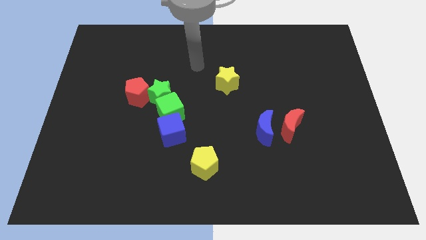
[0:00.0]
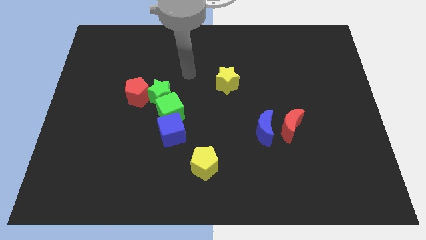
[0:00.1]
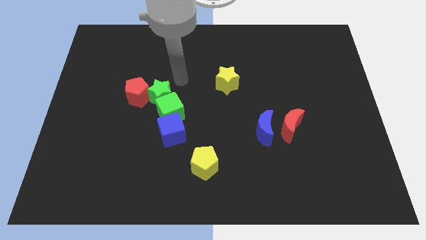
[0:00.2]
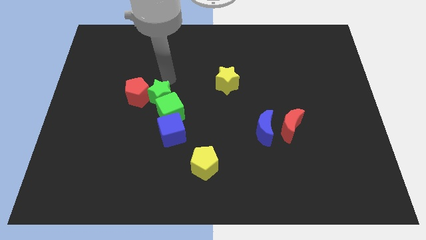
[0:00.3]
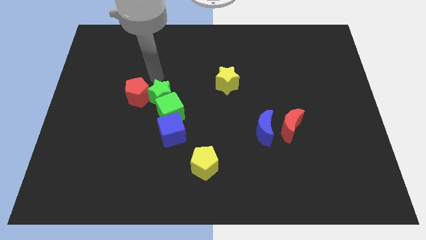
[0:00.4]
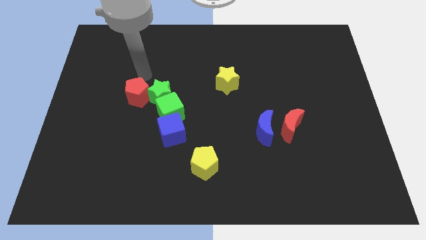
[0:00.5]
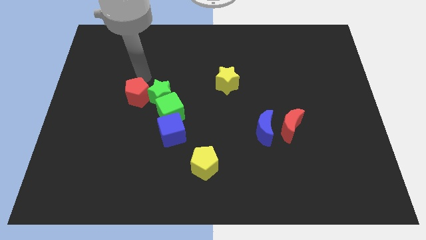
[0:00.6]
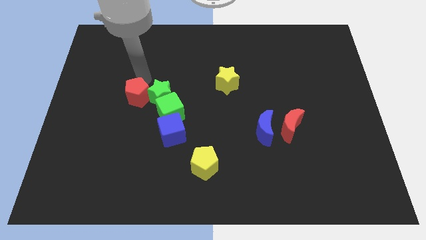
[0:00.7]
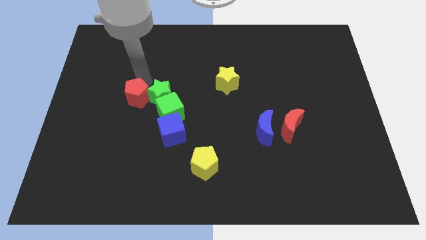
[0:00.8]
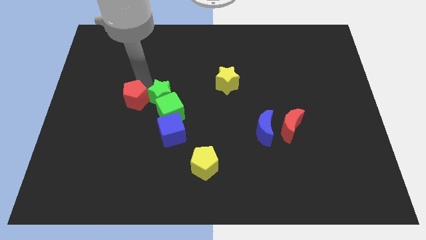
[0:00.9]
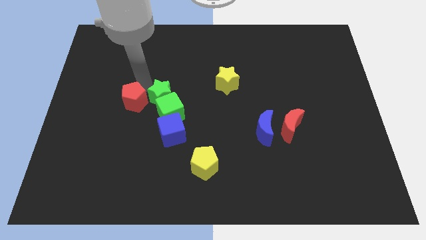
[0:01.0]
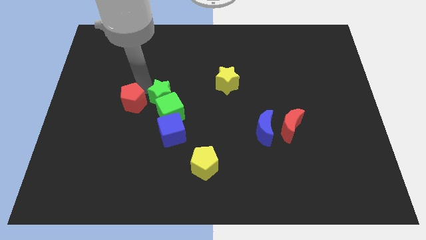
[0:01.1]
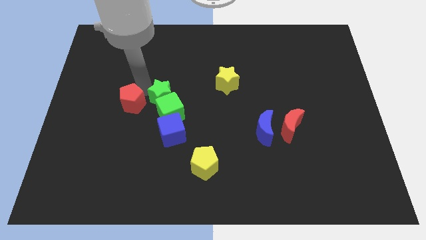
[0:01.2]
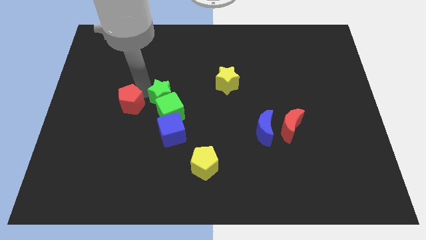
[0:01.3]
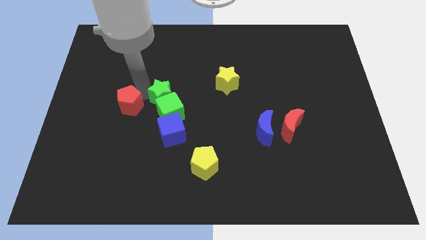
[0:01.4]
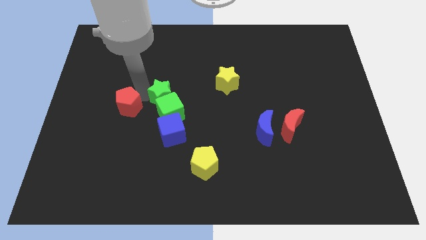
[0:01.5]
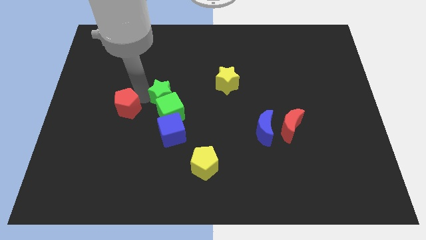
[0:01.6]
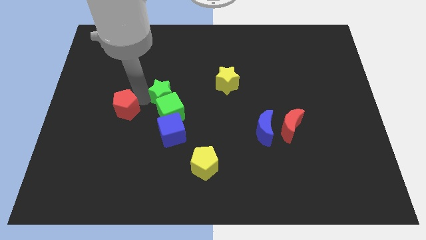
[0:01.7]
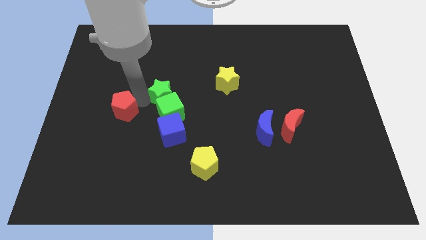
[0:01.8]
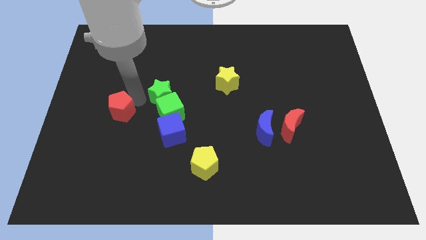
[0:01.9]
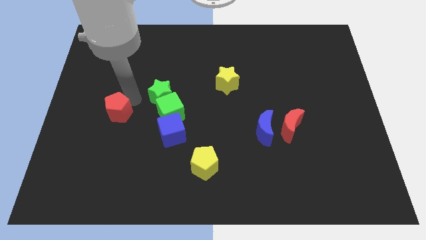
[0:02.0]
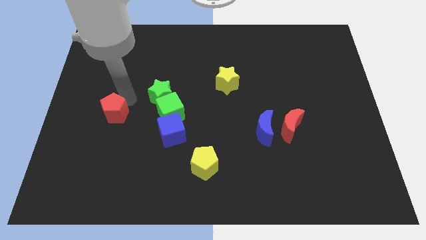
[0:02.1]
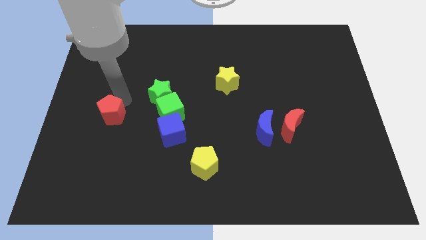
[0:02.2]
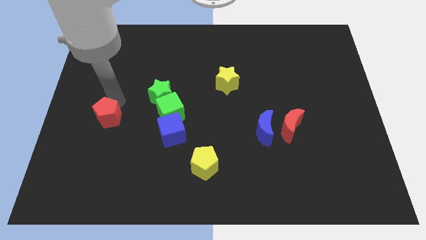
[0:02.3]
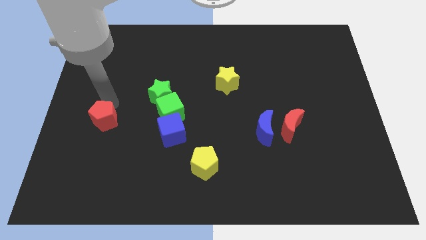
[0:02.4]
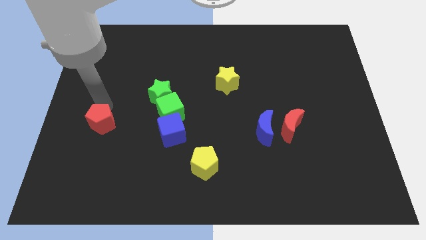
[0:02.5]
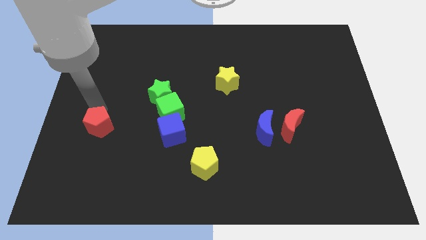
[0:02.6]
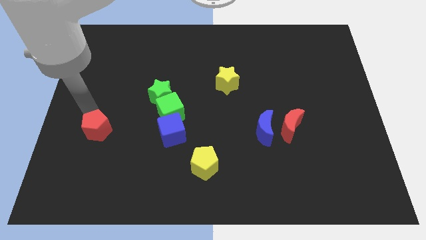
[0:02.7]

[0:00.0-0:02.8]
slide the red pentagon downwards a little

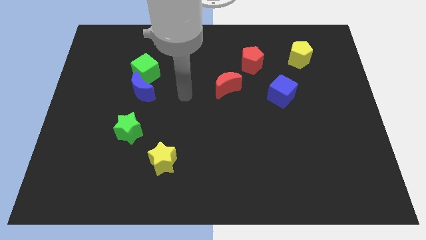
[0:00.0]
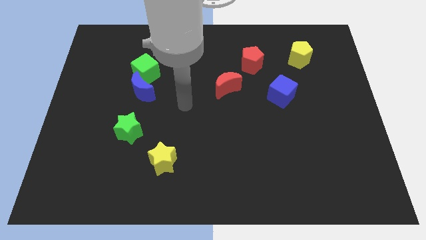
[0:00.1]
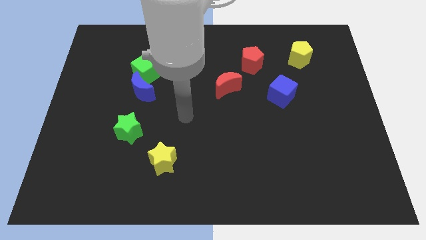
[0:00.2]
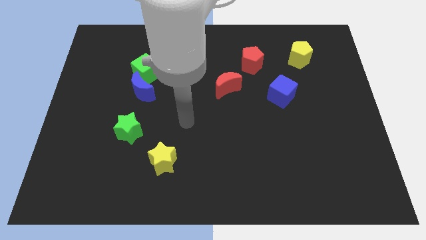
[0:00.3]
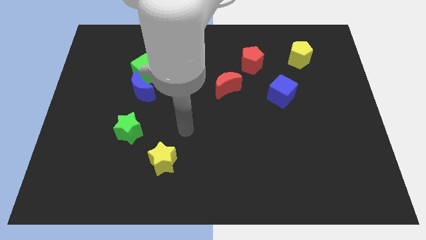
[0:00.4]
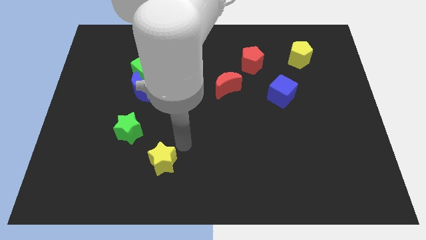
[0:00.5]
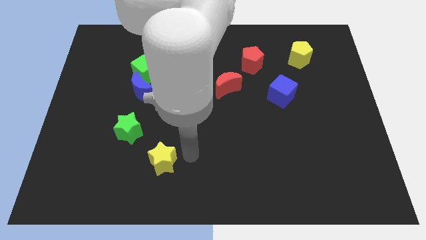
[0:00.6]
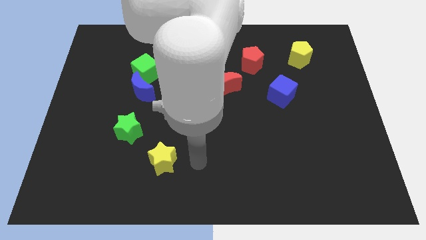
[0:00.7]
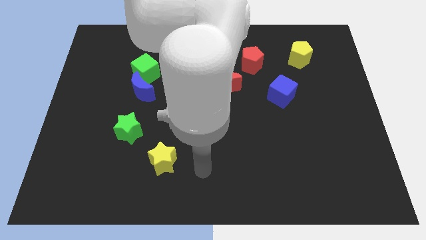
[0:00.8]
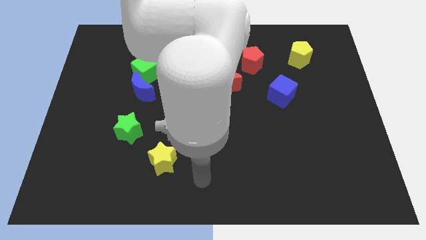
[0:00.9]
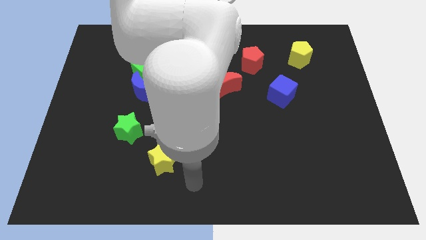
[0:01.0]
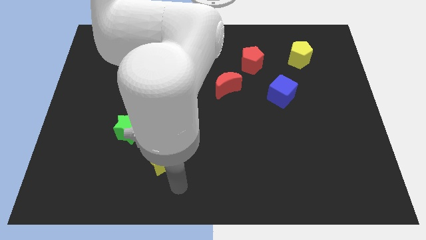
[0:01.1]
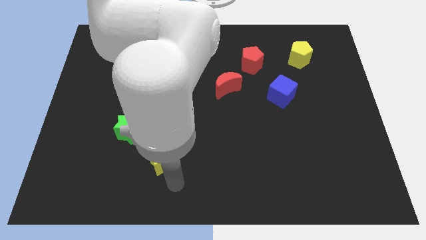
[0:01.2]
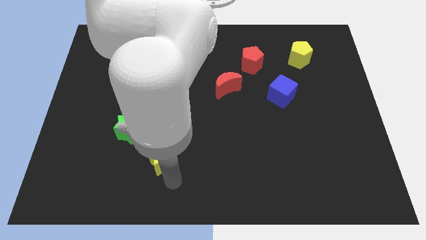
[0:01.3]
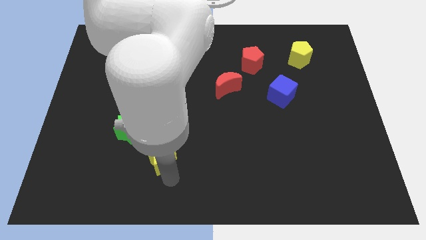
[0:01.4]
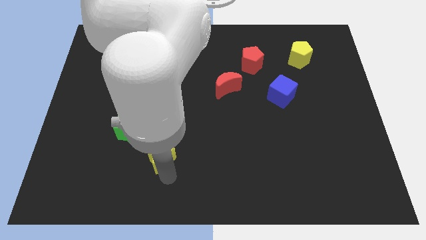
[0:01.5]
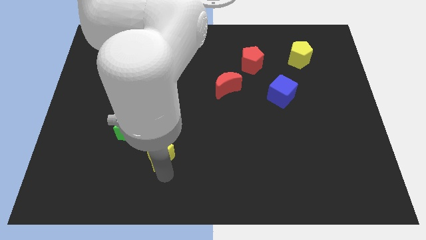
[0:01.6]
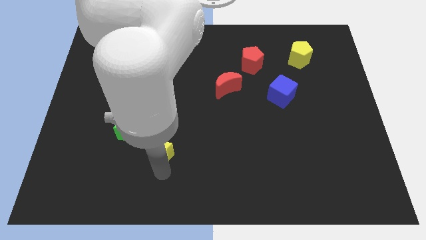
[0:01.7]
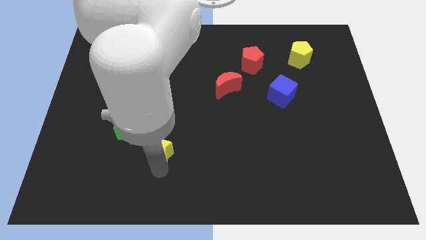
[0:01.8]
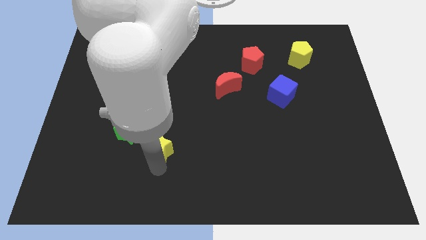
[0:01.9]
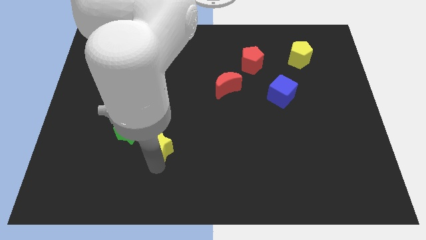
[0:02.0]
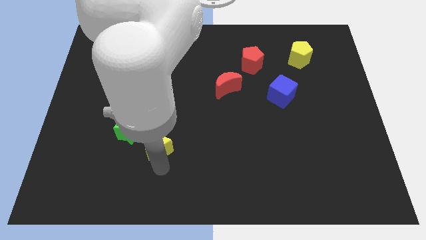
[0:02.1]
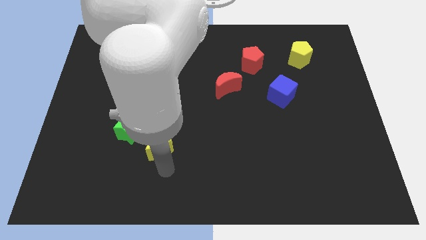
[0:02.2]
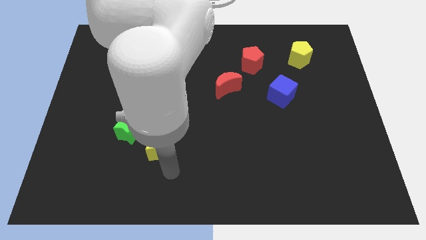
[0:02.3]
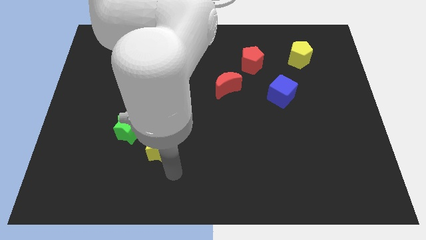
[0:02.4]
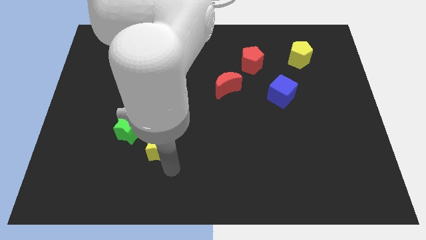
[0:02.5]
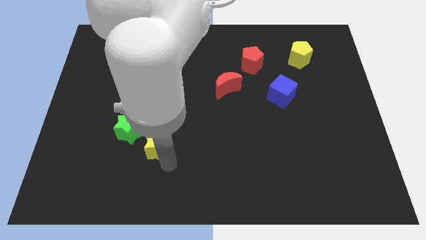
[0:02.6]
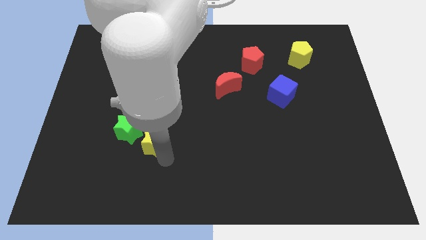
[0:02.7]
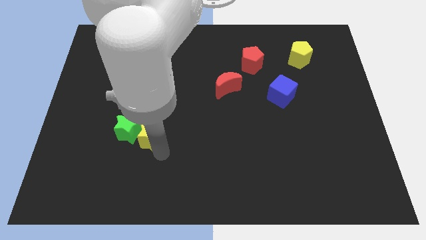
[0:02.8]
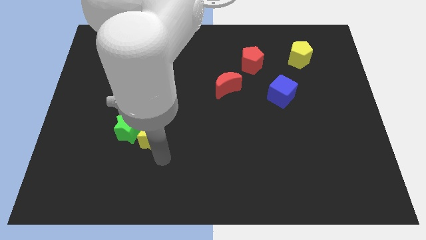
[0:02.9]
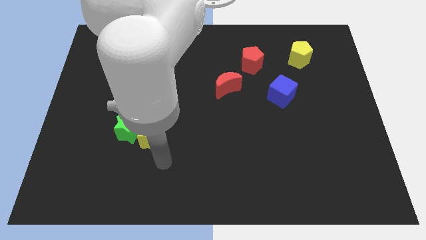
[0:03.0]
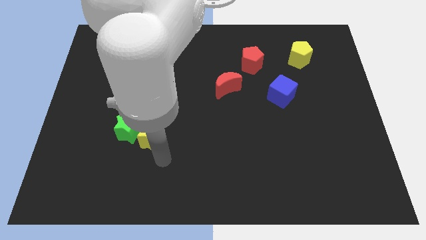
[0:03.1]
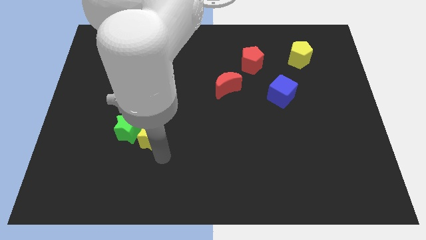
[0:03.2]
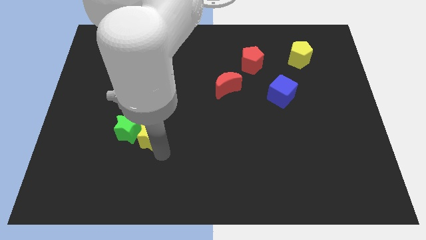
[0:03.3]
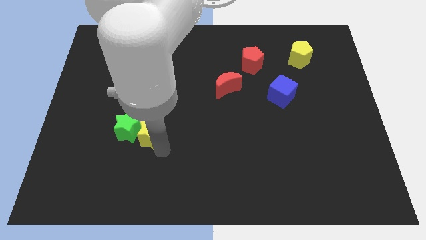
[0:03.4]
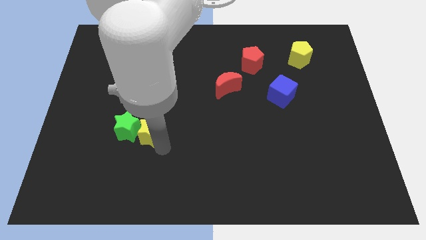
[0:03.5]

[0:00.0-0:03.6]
slide the yellow star somewhat upwards and to the left

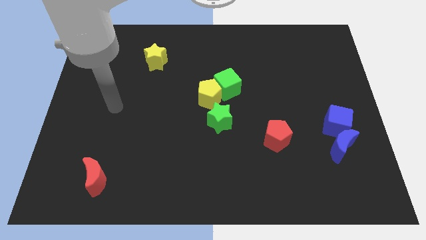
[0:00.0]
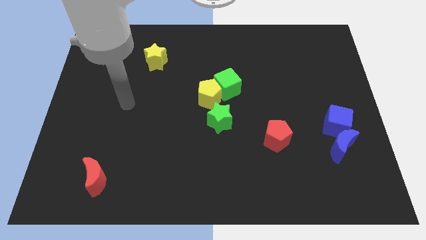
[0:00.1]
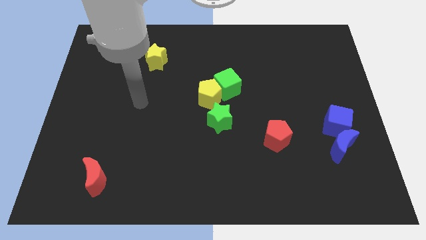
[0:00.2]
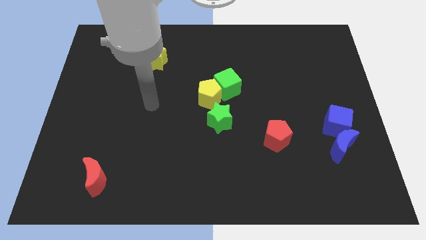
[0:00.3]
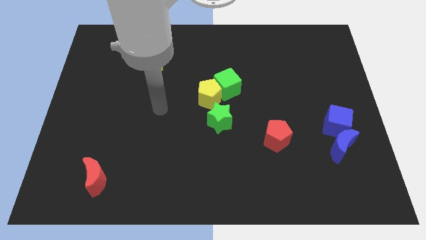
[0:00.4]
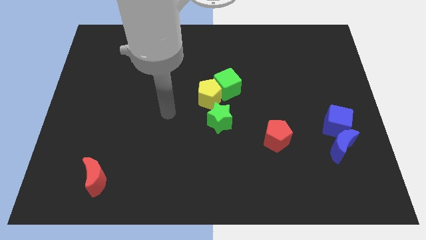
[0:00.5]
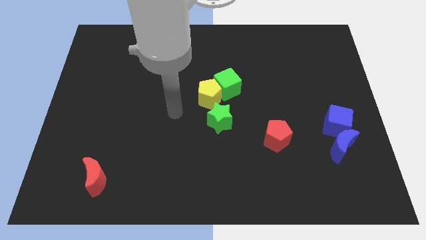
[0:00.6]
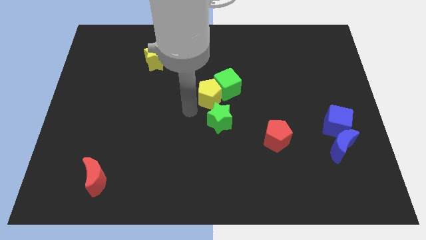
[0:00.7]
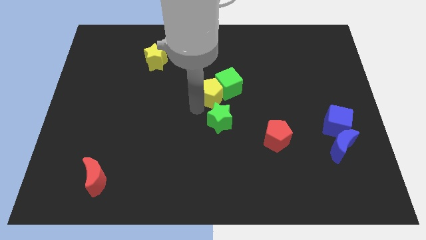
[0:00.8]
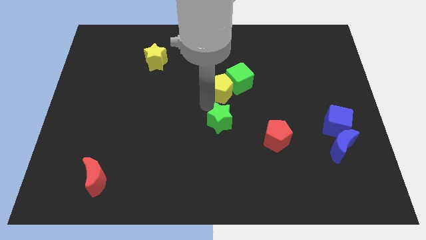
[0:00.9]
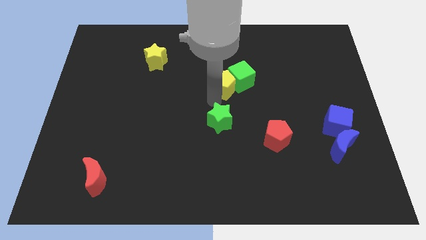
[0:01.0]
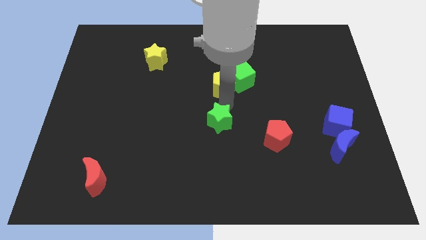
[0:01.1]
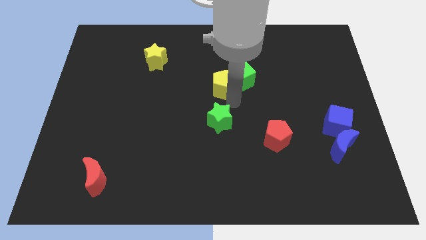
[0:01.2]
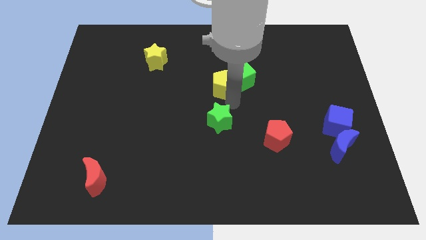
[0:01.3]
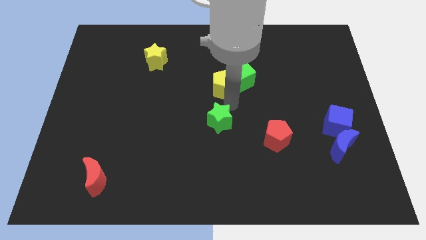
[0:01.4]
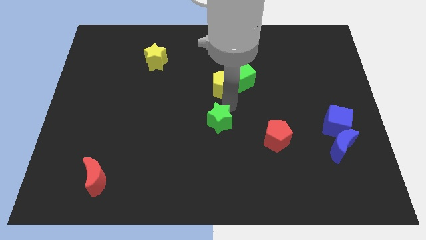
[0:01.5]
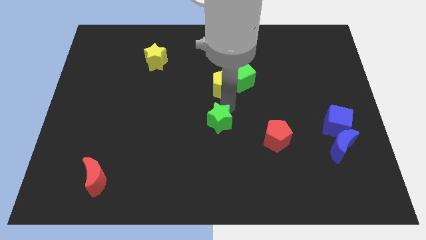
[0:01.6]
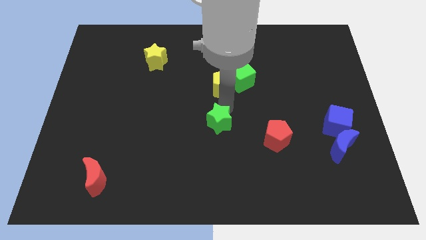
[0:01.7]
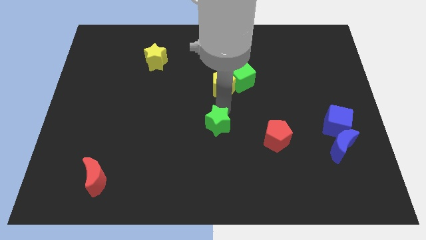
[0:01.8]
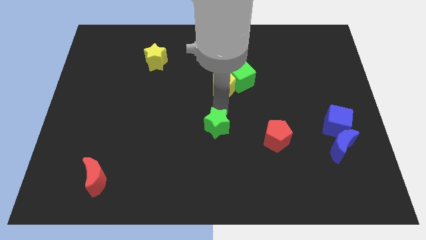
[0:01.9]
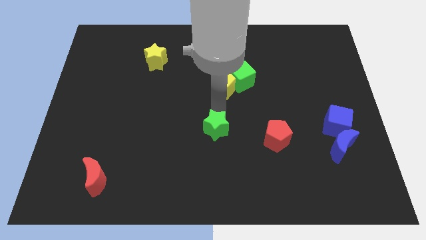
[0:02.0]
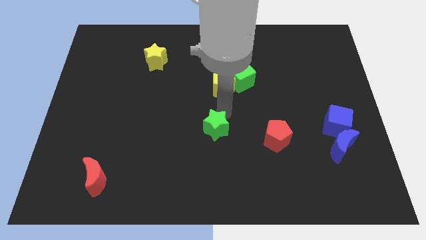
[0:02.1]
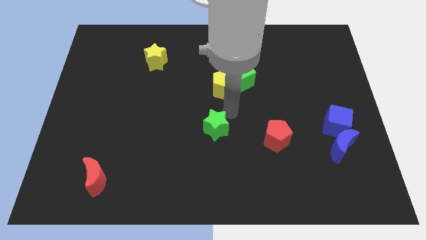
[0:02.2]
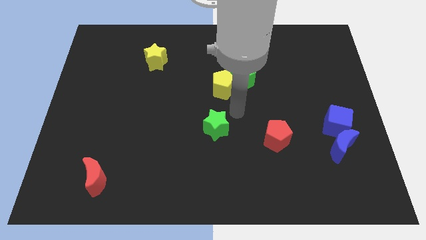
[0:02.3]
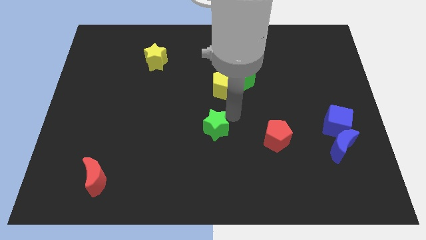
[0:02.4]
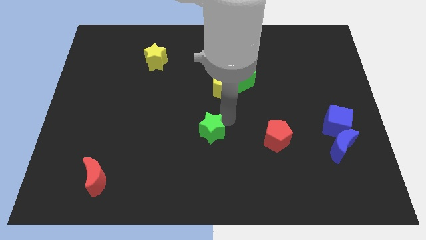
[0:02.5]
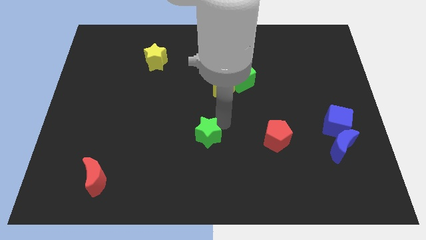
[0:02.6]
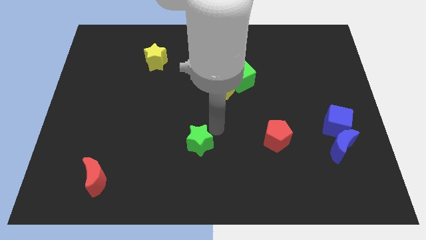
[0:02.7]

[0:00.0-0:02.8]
slide the green star a little bit down and then to the left
